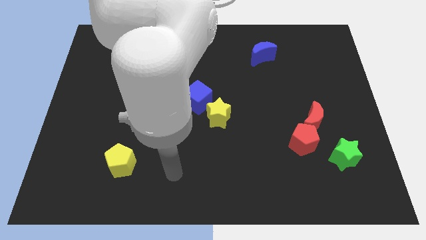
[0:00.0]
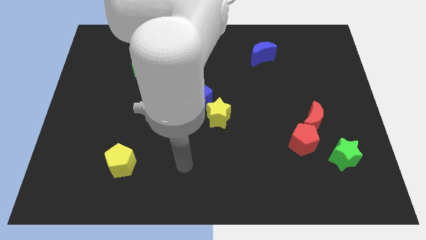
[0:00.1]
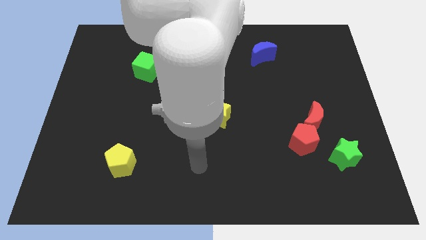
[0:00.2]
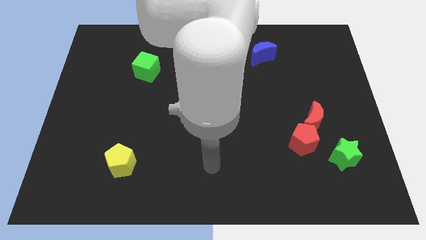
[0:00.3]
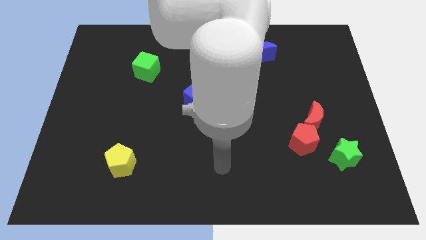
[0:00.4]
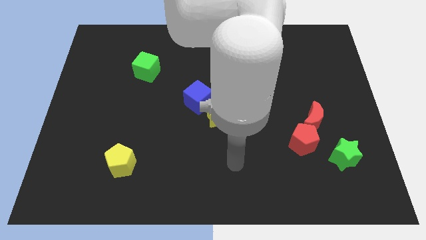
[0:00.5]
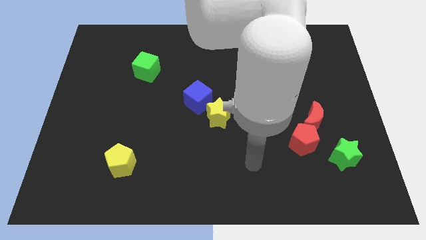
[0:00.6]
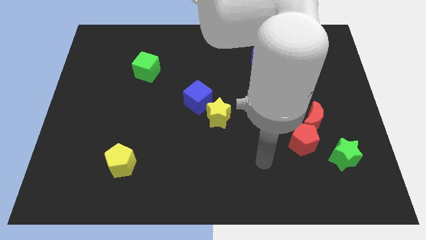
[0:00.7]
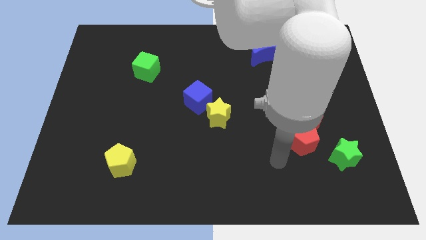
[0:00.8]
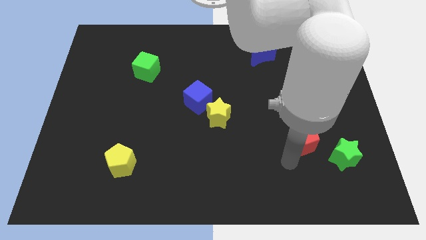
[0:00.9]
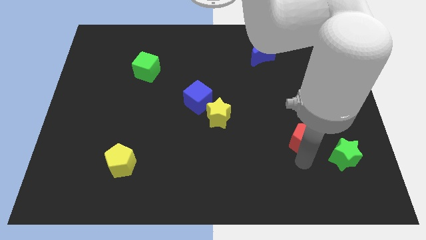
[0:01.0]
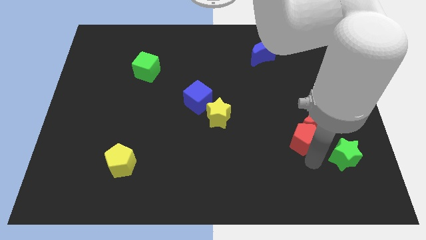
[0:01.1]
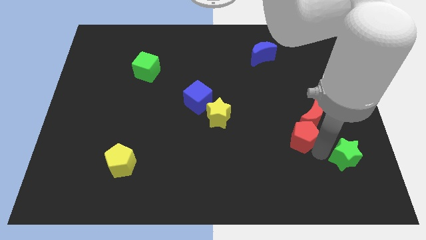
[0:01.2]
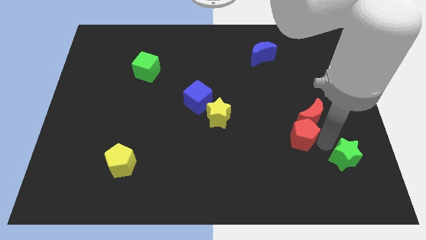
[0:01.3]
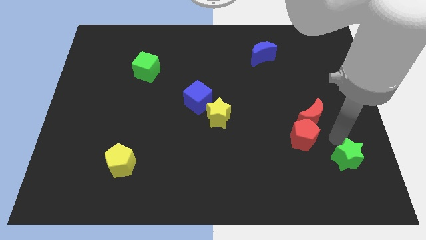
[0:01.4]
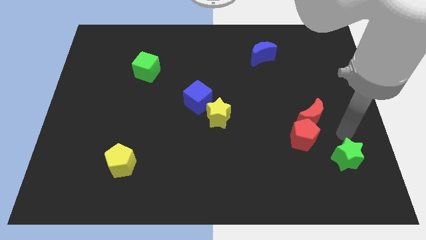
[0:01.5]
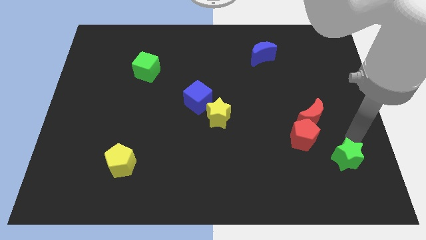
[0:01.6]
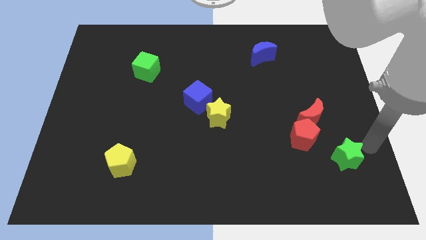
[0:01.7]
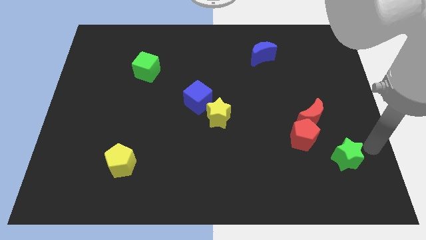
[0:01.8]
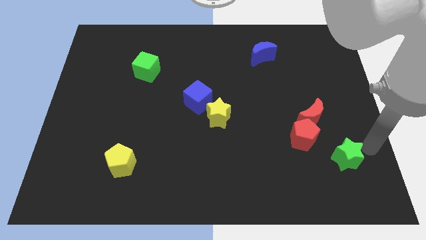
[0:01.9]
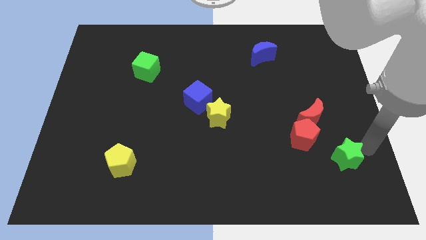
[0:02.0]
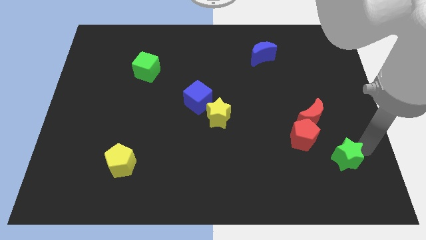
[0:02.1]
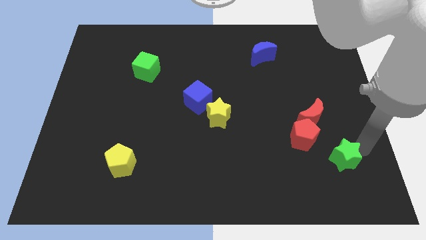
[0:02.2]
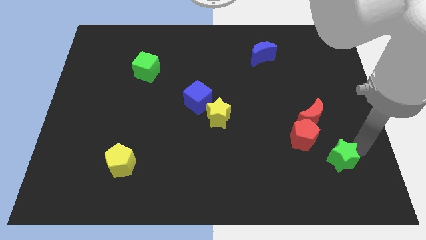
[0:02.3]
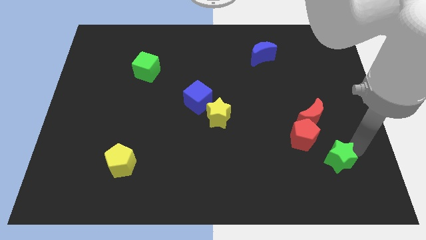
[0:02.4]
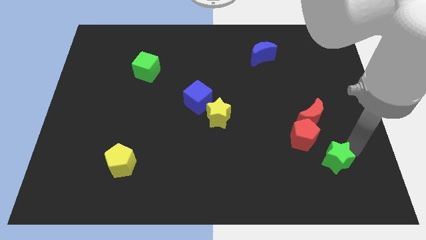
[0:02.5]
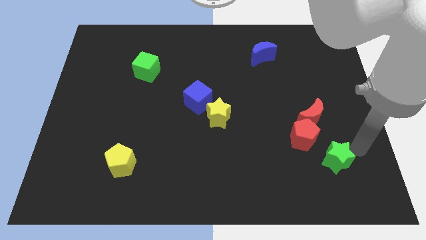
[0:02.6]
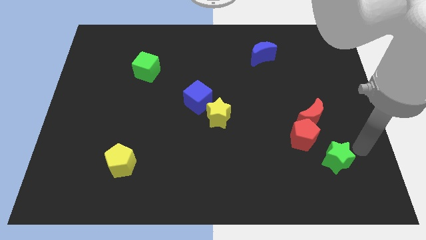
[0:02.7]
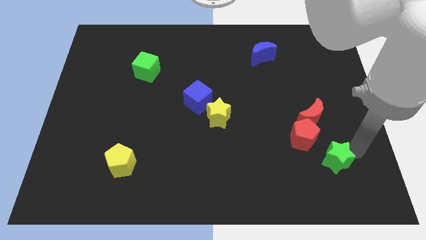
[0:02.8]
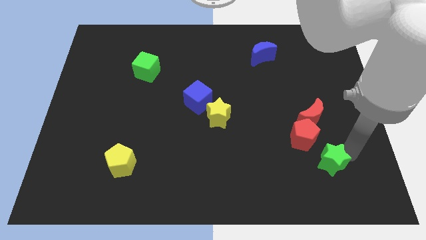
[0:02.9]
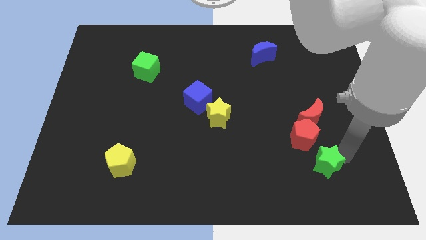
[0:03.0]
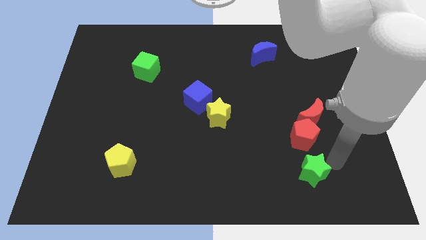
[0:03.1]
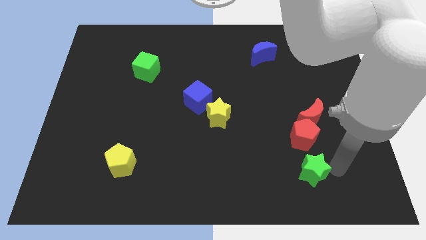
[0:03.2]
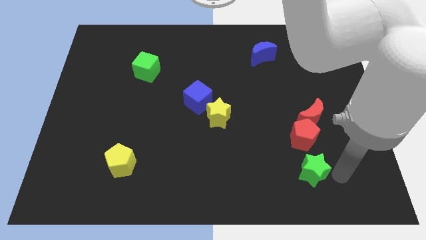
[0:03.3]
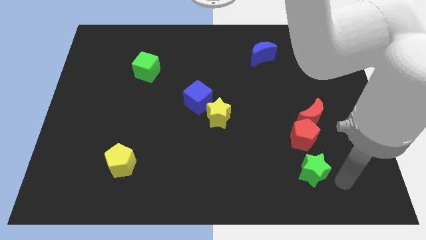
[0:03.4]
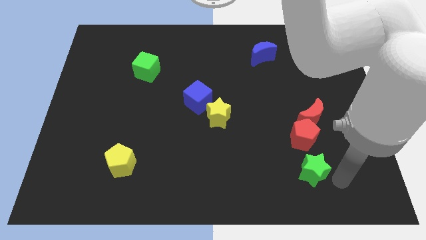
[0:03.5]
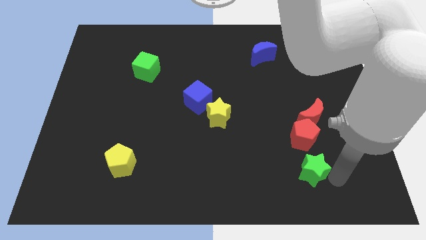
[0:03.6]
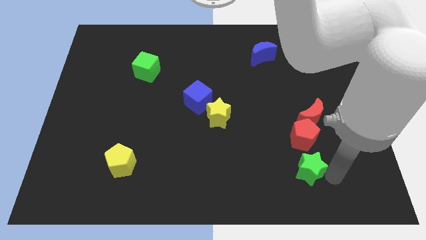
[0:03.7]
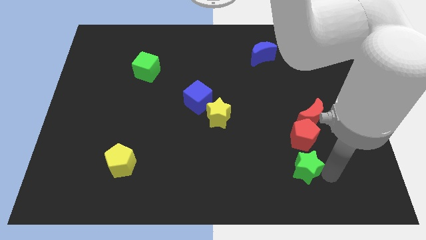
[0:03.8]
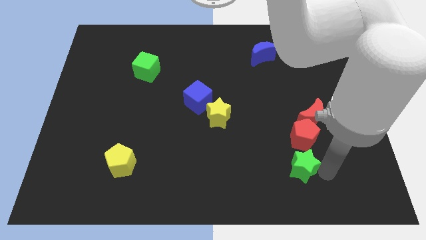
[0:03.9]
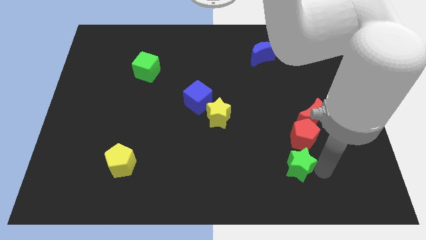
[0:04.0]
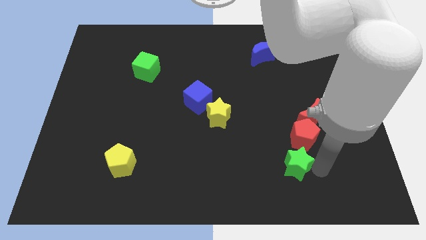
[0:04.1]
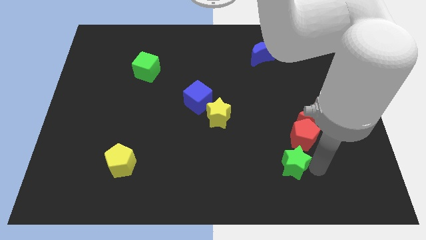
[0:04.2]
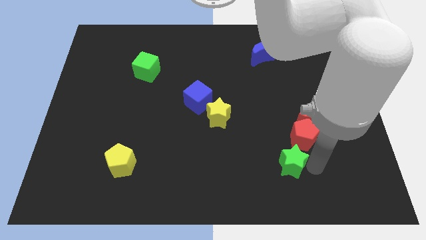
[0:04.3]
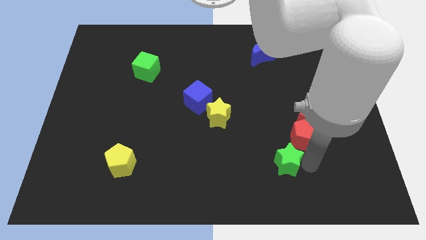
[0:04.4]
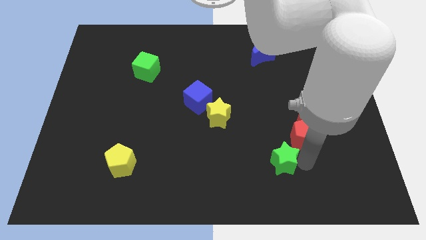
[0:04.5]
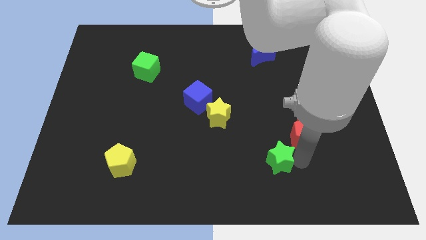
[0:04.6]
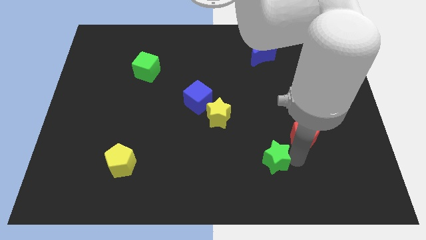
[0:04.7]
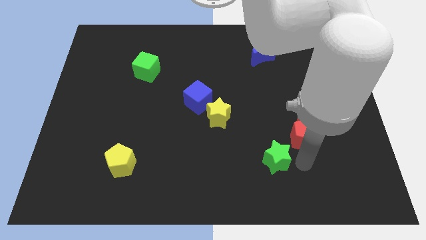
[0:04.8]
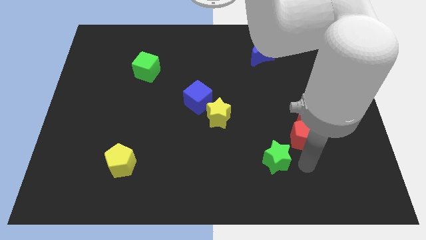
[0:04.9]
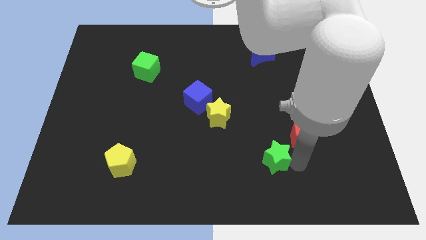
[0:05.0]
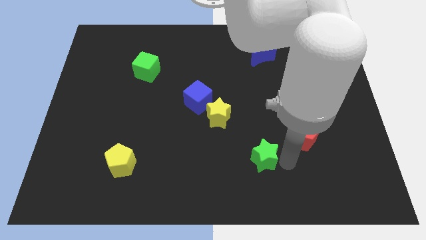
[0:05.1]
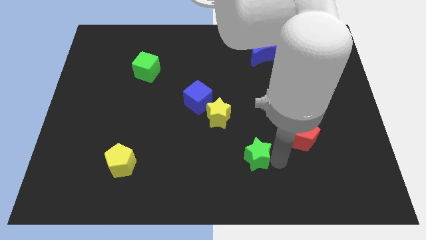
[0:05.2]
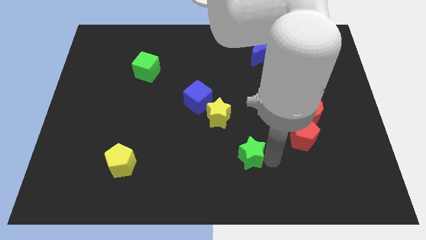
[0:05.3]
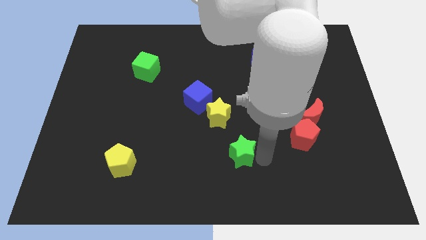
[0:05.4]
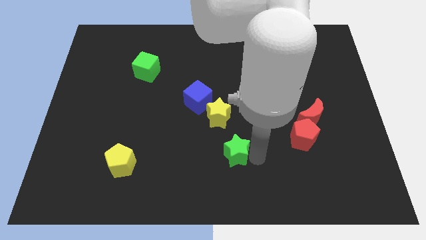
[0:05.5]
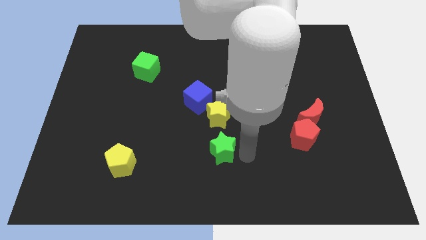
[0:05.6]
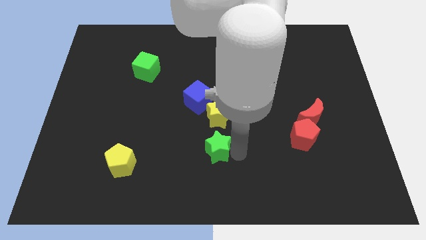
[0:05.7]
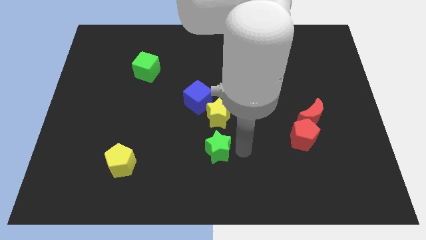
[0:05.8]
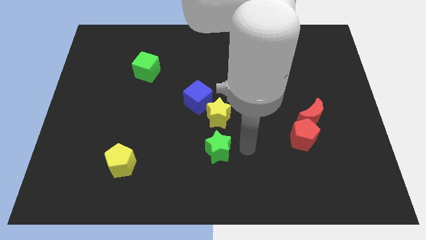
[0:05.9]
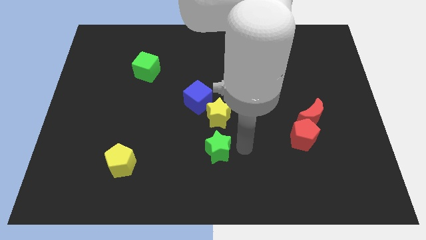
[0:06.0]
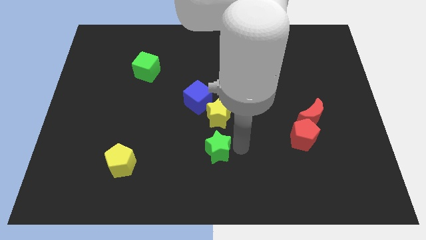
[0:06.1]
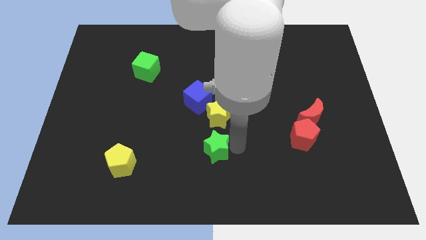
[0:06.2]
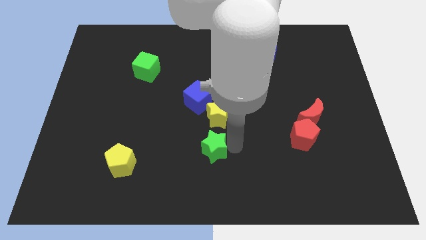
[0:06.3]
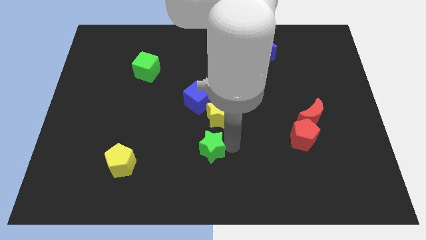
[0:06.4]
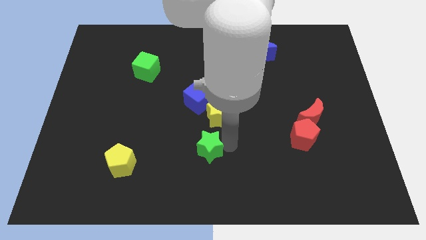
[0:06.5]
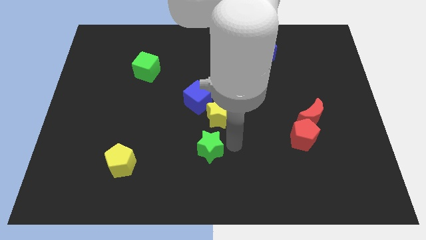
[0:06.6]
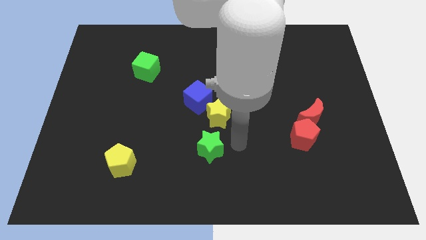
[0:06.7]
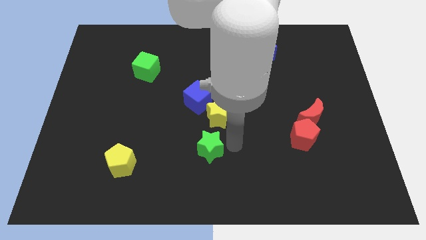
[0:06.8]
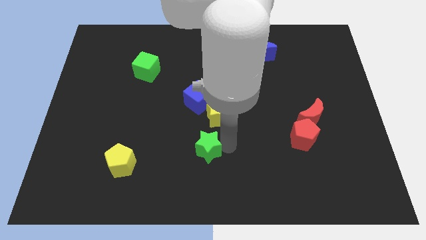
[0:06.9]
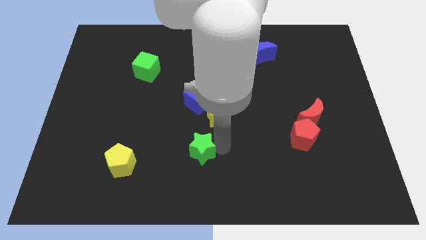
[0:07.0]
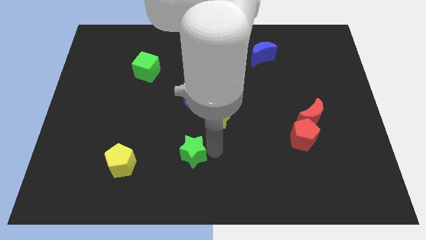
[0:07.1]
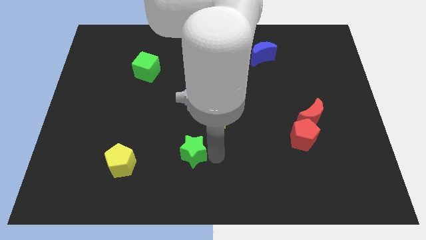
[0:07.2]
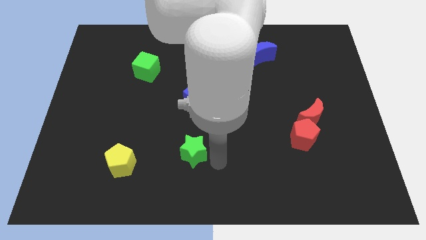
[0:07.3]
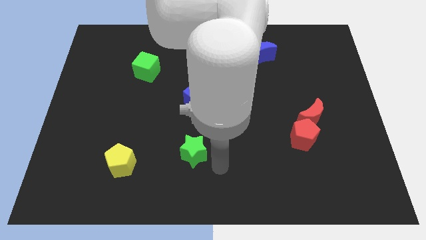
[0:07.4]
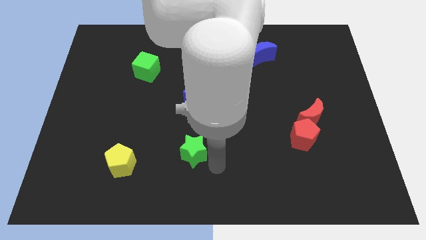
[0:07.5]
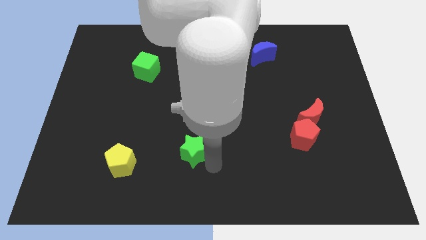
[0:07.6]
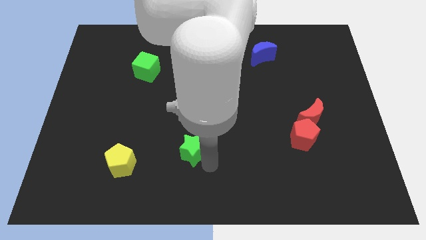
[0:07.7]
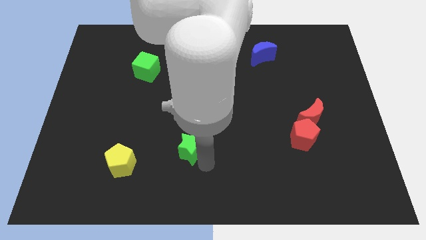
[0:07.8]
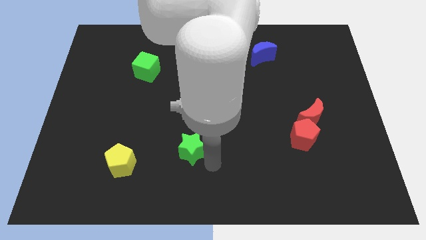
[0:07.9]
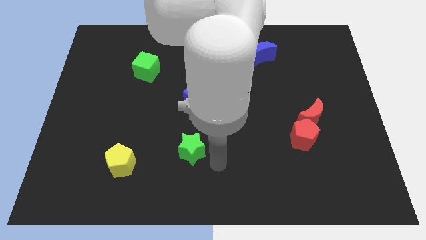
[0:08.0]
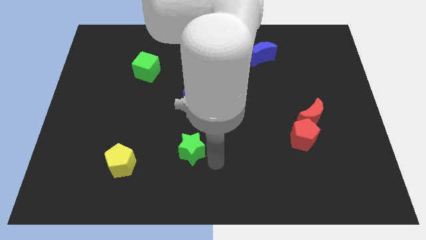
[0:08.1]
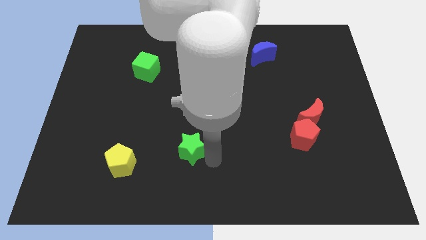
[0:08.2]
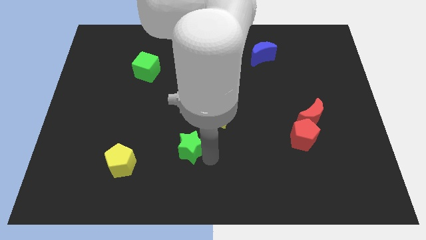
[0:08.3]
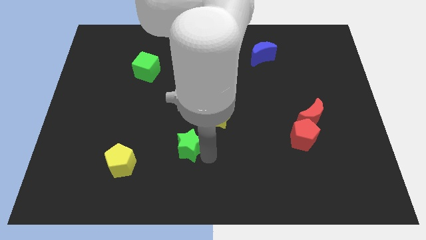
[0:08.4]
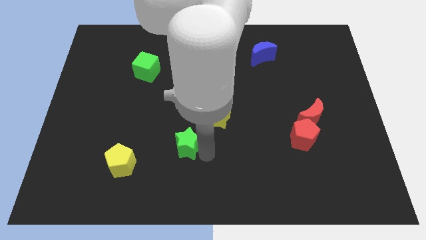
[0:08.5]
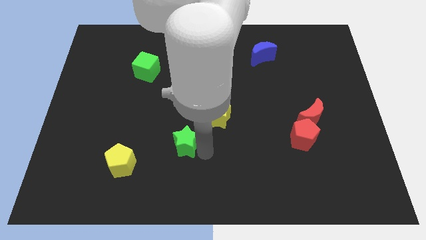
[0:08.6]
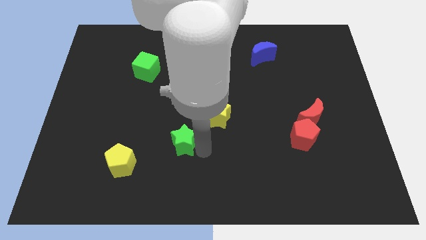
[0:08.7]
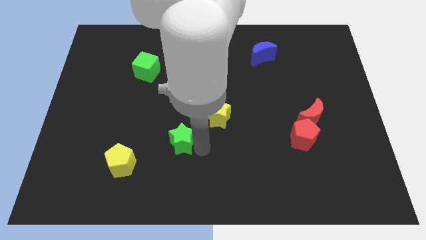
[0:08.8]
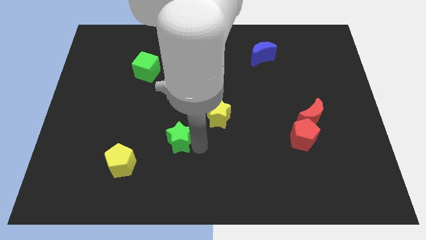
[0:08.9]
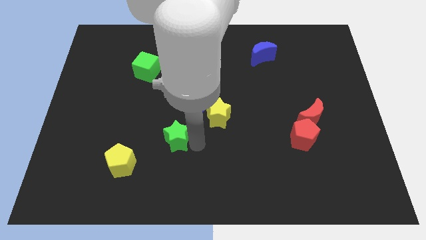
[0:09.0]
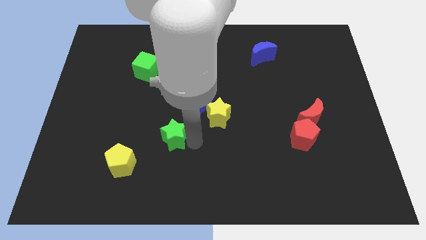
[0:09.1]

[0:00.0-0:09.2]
slide the green star to the top right side of the yellow pentagon
